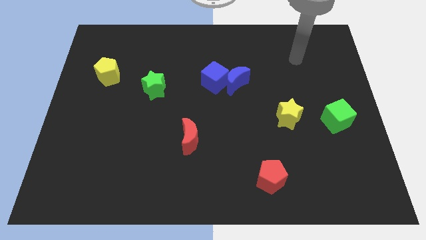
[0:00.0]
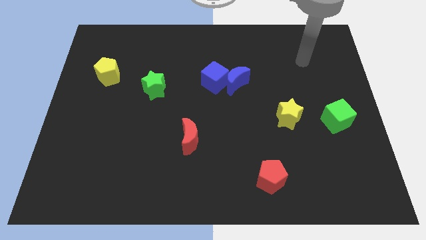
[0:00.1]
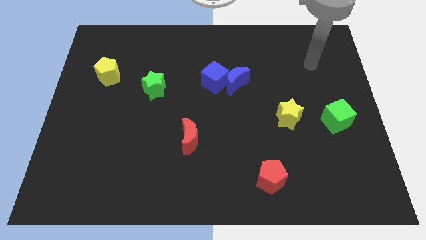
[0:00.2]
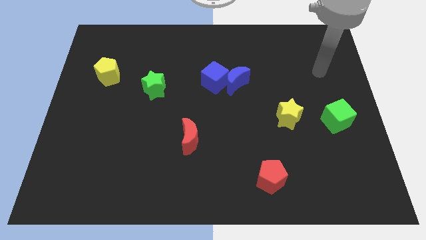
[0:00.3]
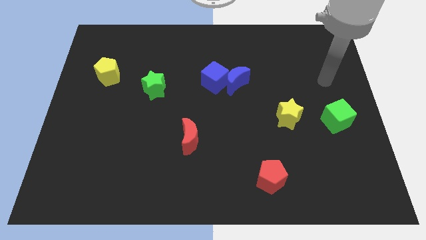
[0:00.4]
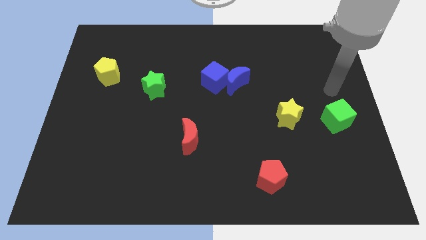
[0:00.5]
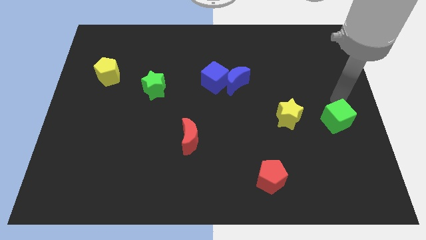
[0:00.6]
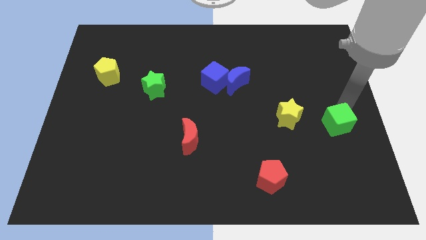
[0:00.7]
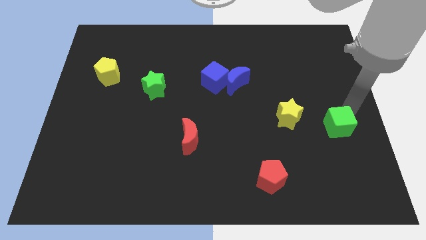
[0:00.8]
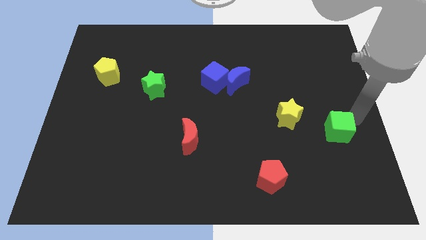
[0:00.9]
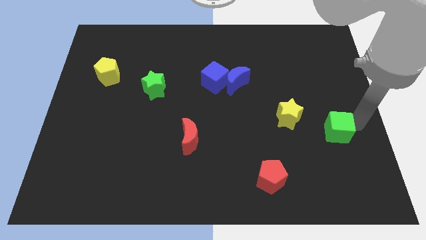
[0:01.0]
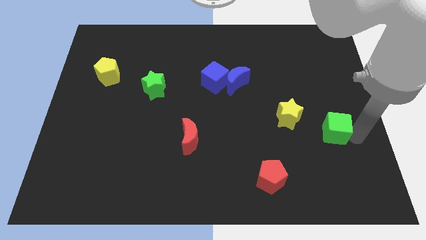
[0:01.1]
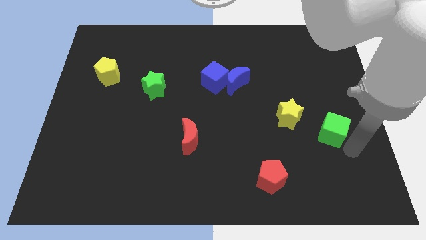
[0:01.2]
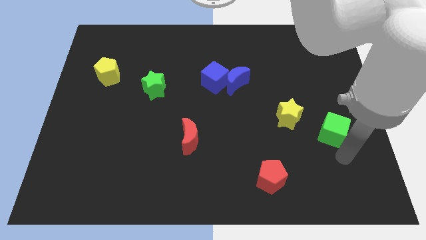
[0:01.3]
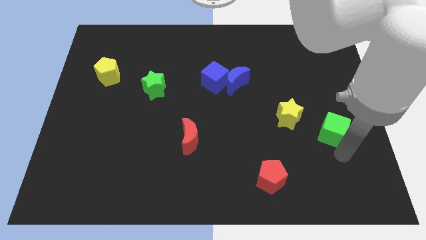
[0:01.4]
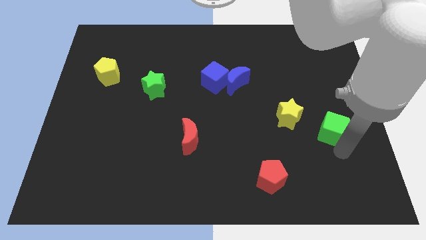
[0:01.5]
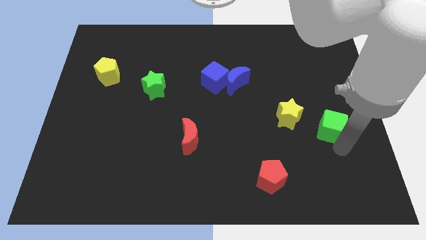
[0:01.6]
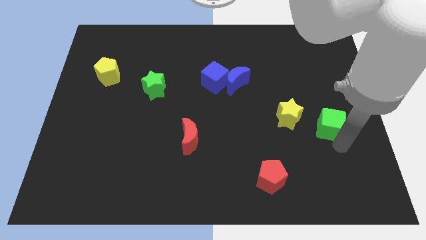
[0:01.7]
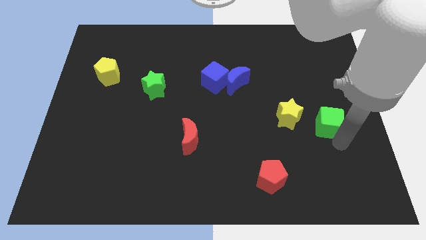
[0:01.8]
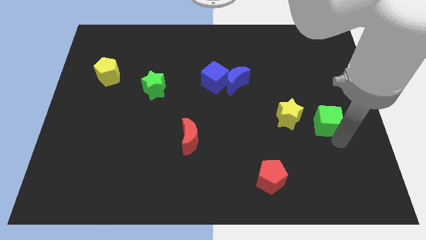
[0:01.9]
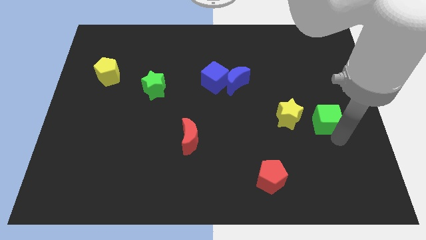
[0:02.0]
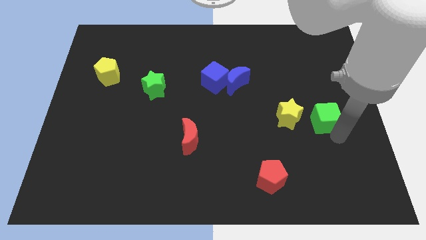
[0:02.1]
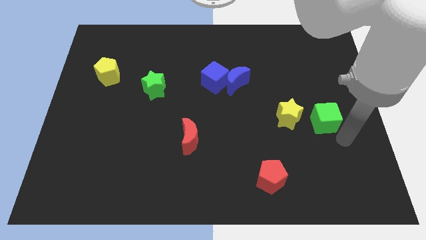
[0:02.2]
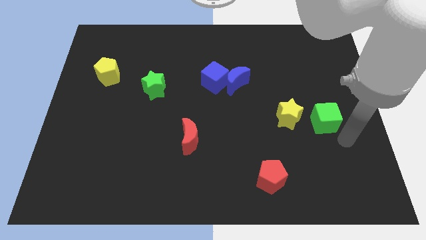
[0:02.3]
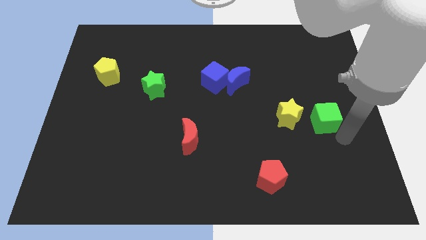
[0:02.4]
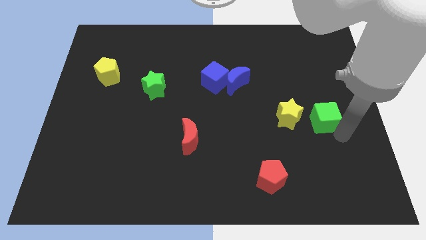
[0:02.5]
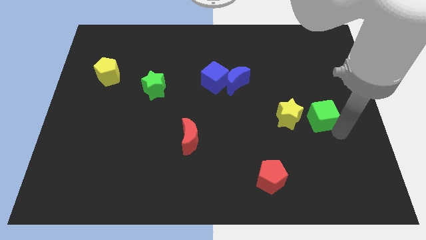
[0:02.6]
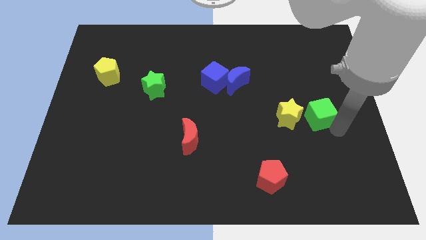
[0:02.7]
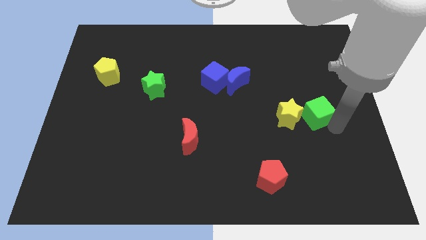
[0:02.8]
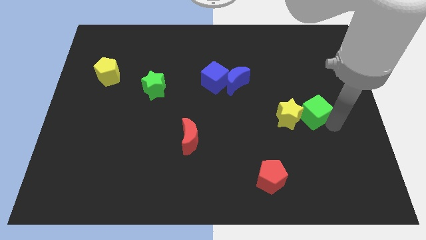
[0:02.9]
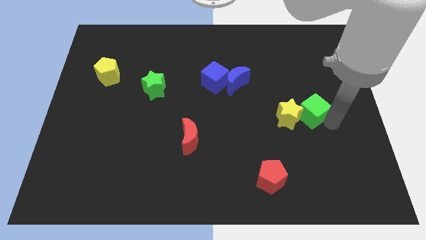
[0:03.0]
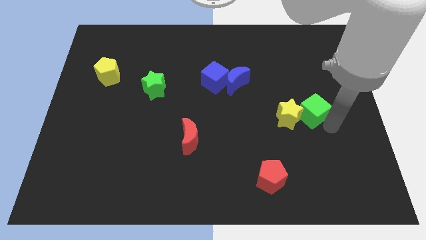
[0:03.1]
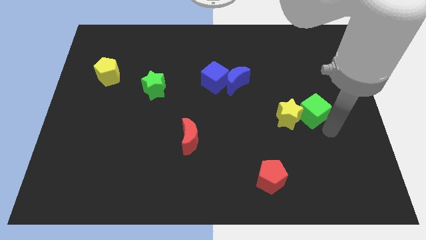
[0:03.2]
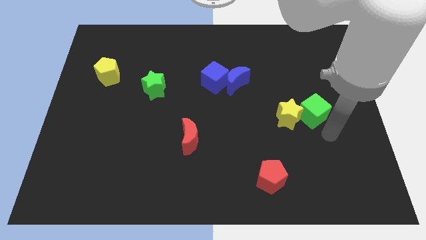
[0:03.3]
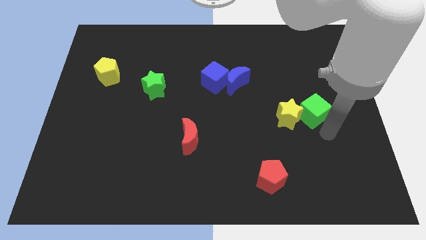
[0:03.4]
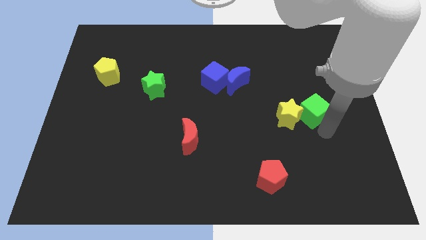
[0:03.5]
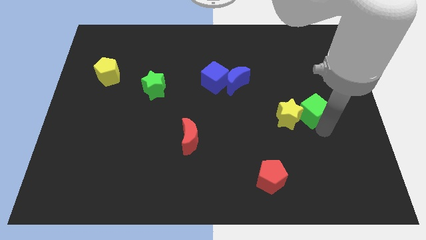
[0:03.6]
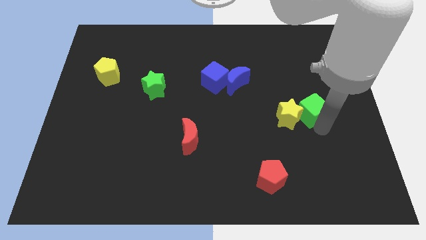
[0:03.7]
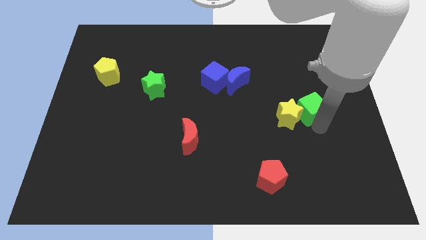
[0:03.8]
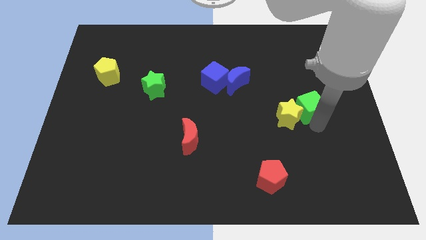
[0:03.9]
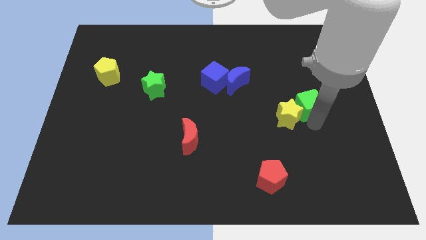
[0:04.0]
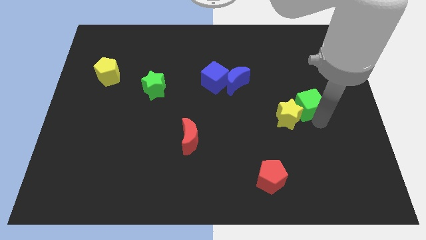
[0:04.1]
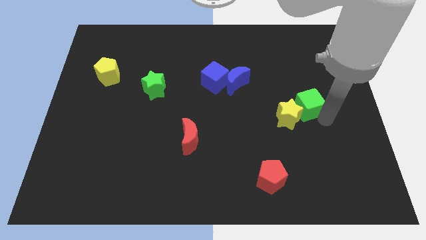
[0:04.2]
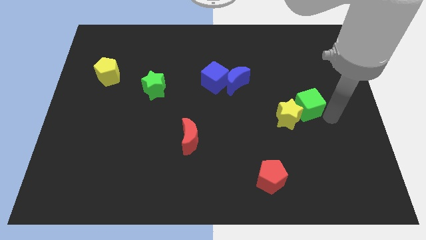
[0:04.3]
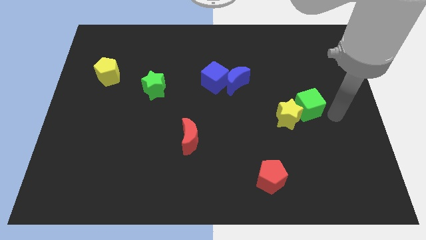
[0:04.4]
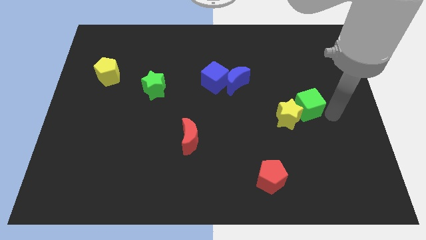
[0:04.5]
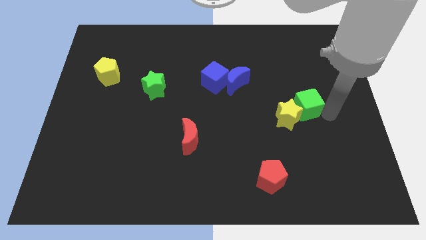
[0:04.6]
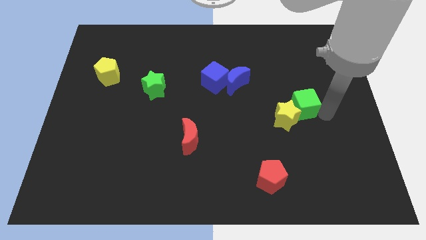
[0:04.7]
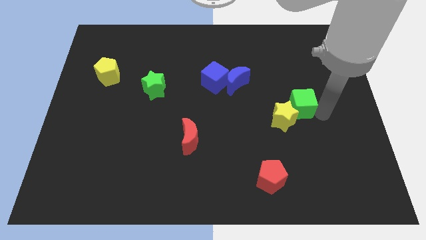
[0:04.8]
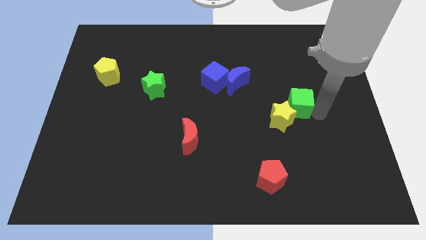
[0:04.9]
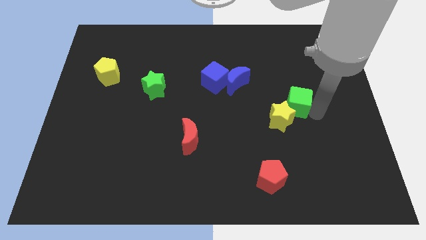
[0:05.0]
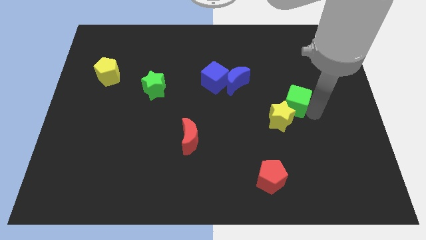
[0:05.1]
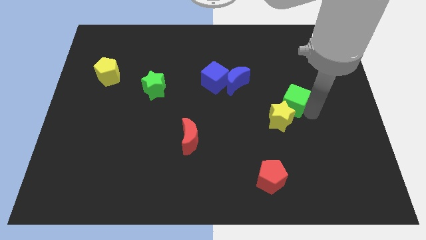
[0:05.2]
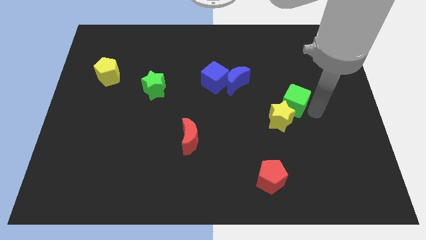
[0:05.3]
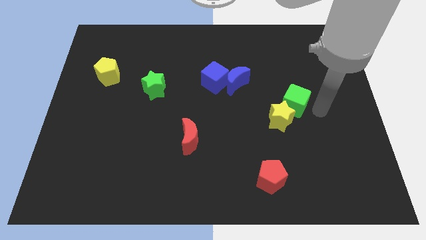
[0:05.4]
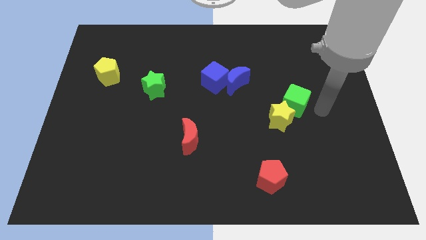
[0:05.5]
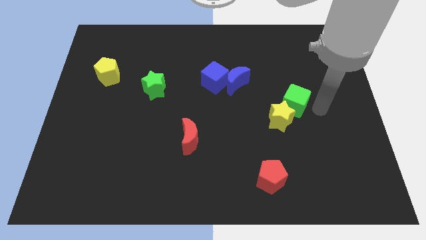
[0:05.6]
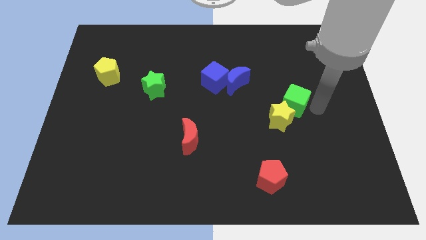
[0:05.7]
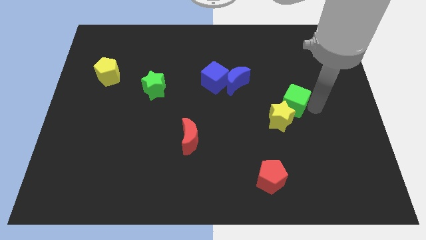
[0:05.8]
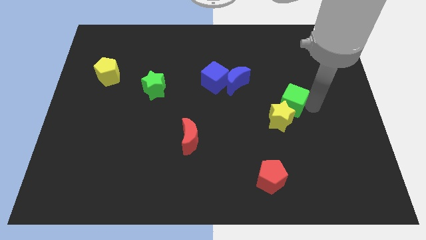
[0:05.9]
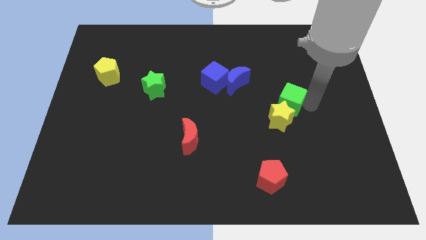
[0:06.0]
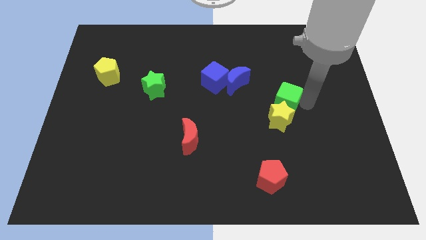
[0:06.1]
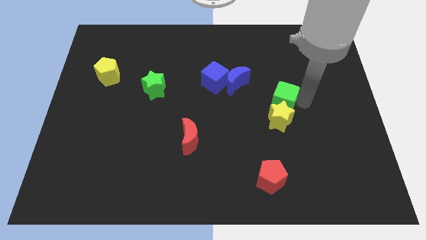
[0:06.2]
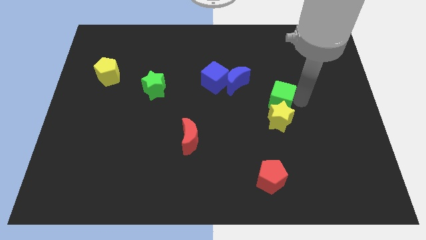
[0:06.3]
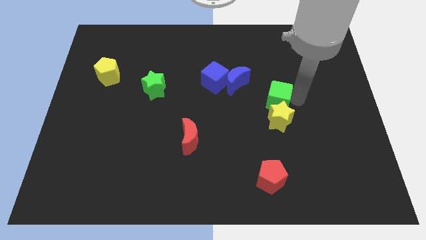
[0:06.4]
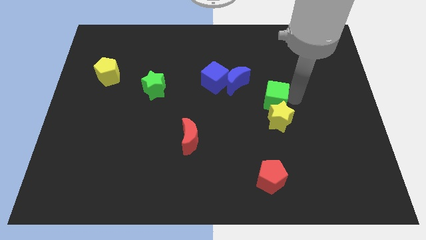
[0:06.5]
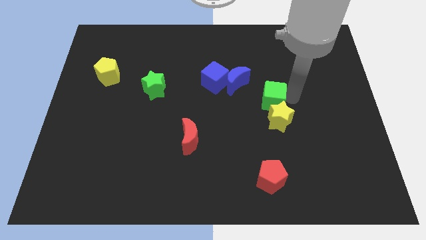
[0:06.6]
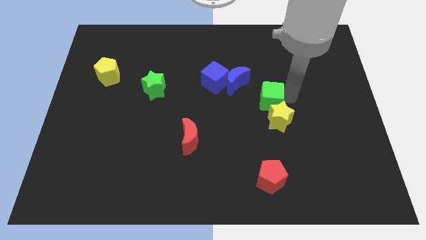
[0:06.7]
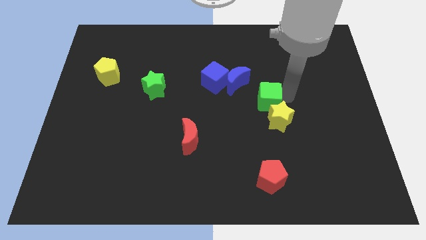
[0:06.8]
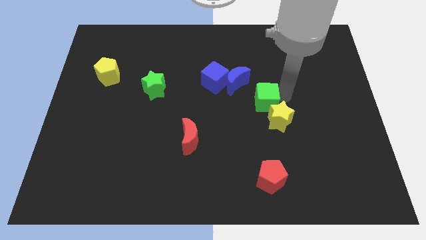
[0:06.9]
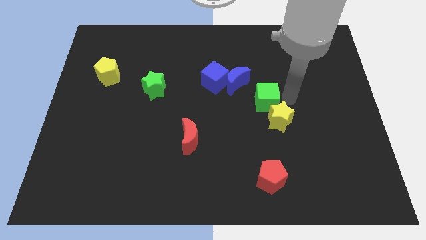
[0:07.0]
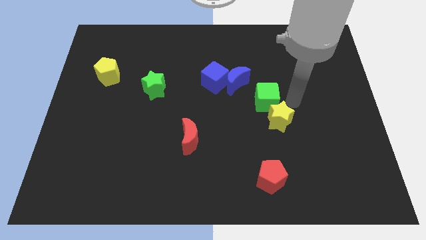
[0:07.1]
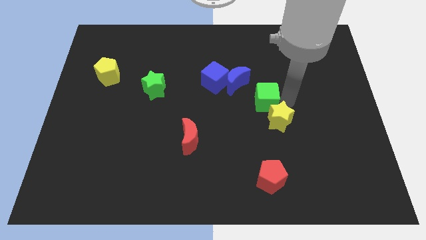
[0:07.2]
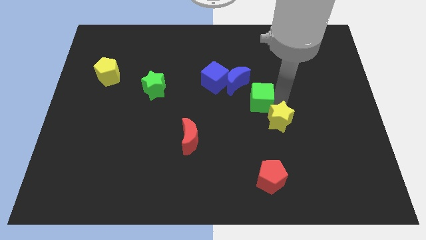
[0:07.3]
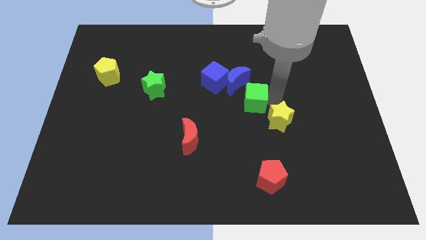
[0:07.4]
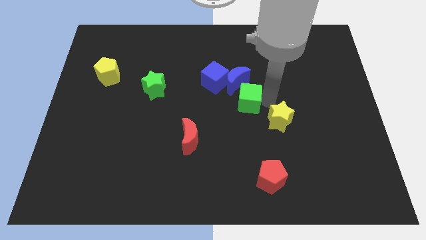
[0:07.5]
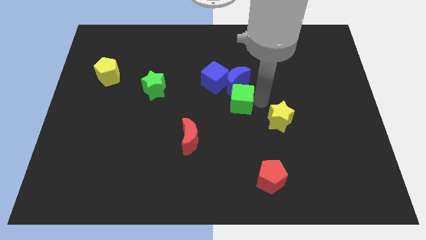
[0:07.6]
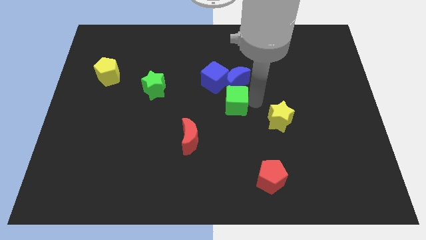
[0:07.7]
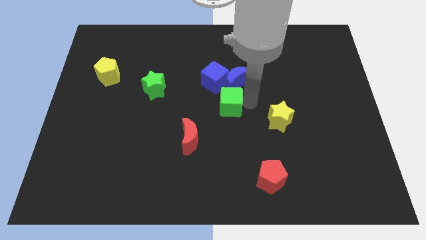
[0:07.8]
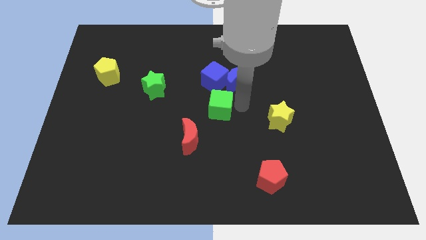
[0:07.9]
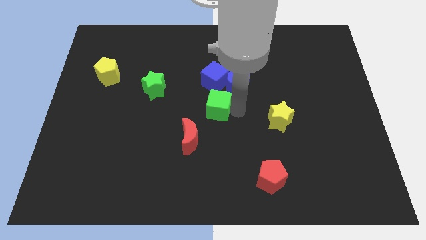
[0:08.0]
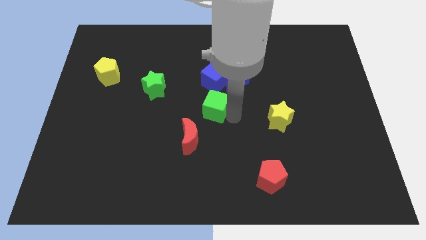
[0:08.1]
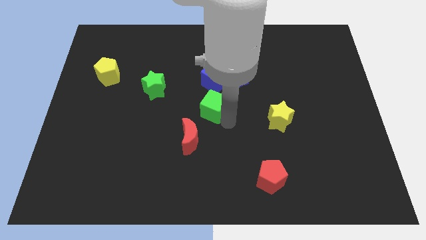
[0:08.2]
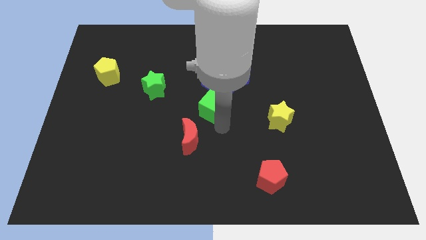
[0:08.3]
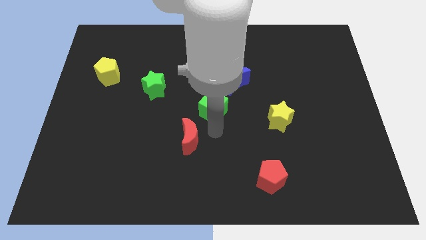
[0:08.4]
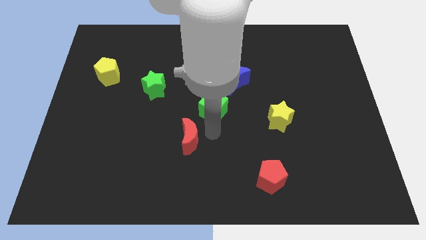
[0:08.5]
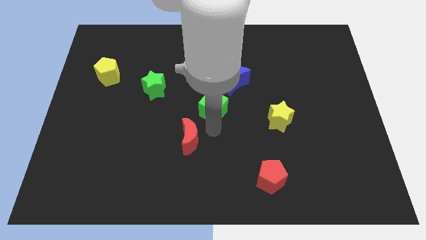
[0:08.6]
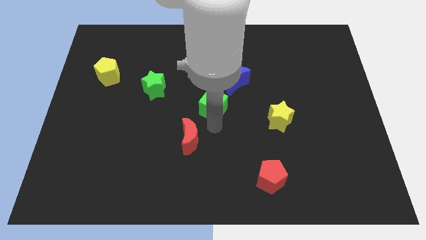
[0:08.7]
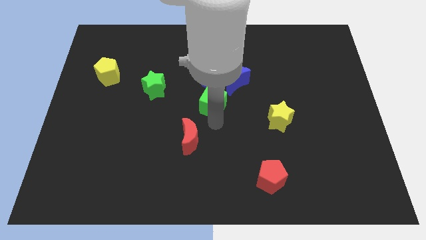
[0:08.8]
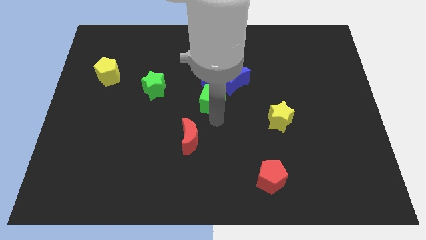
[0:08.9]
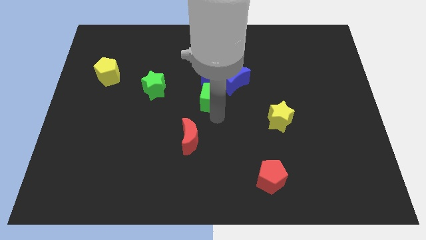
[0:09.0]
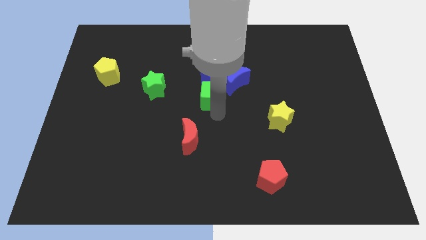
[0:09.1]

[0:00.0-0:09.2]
slide the green cube towards the blue cube
